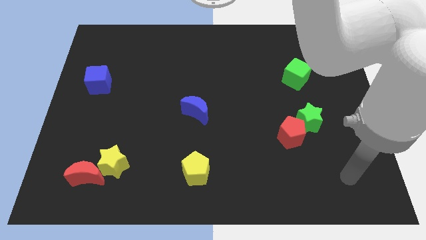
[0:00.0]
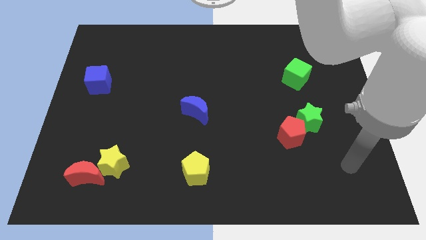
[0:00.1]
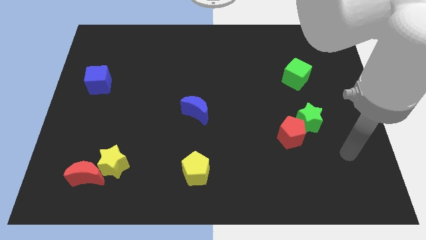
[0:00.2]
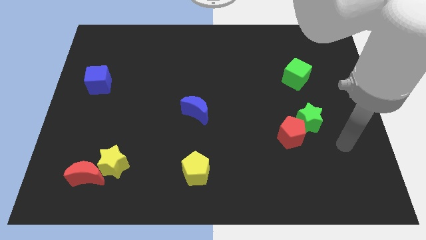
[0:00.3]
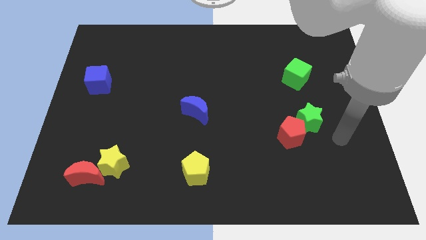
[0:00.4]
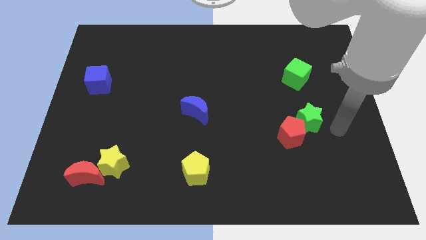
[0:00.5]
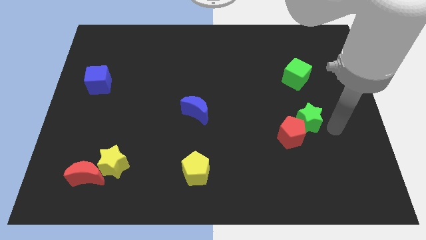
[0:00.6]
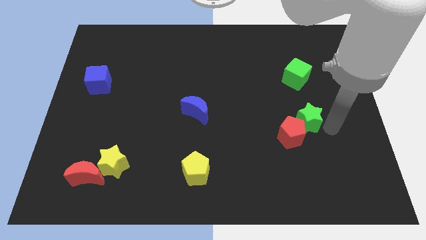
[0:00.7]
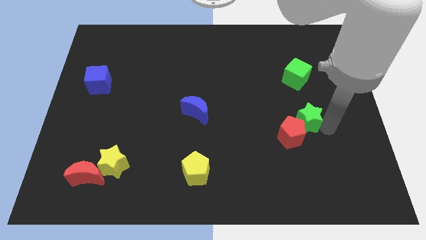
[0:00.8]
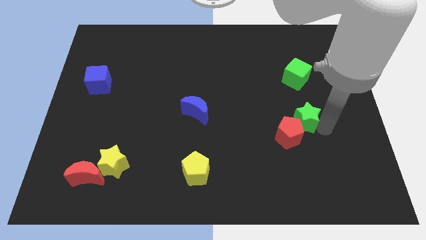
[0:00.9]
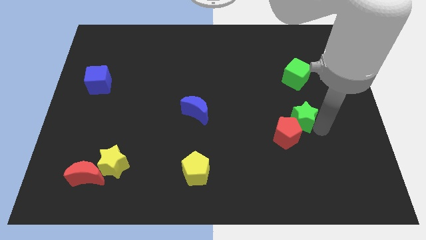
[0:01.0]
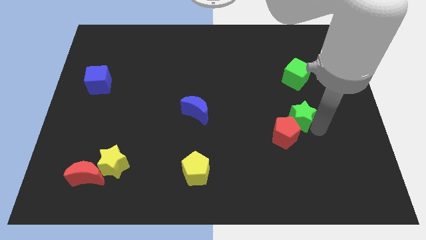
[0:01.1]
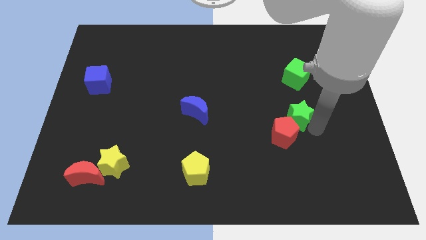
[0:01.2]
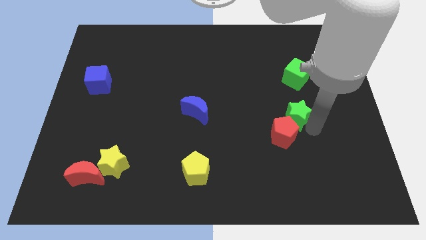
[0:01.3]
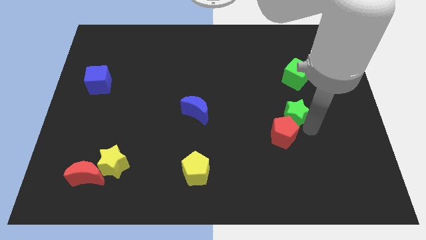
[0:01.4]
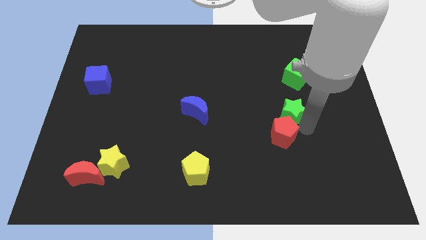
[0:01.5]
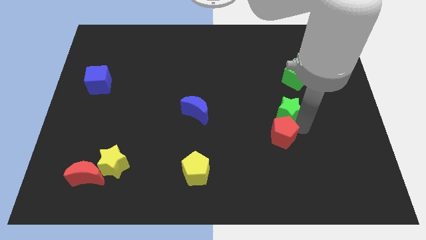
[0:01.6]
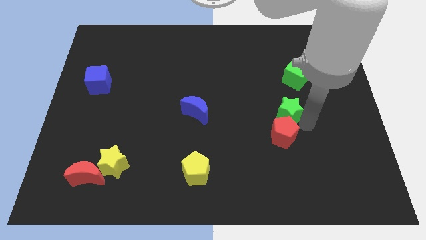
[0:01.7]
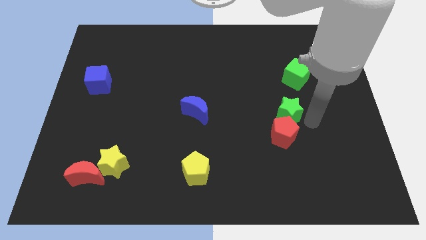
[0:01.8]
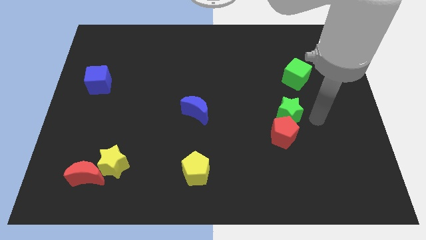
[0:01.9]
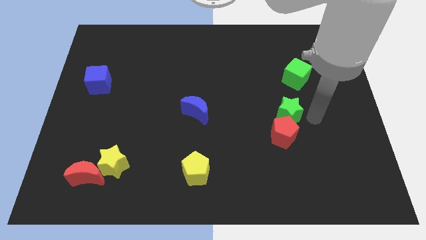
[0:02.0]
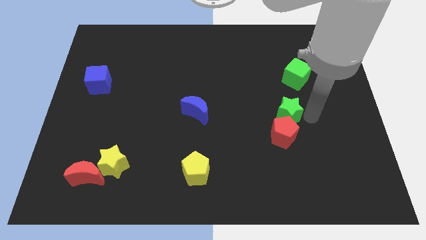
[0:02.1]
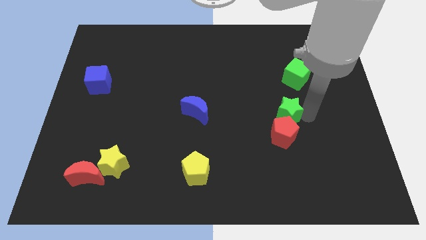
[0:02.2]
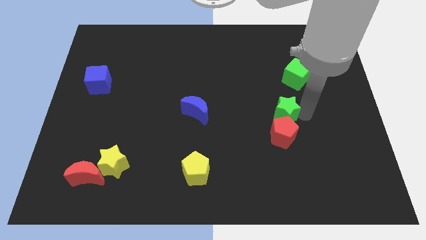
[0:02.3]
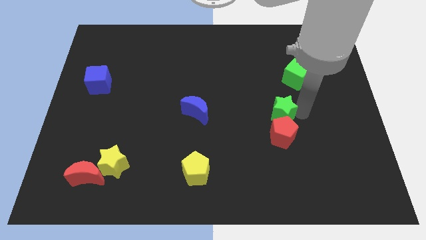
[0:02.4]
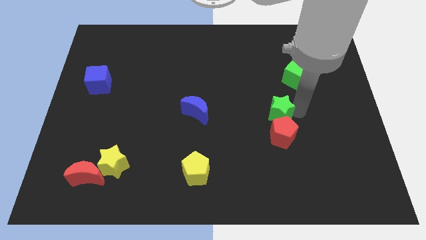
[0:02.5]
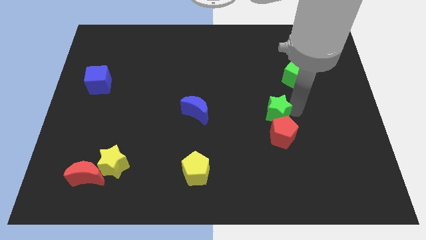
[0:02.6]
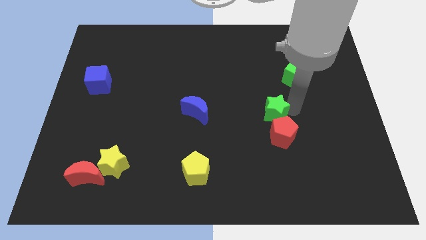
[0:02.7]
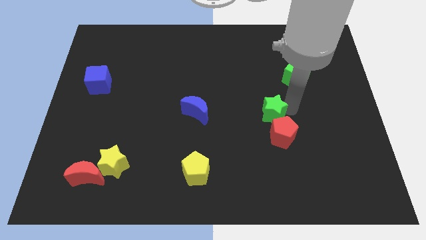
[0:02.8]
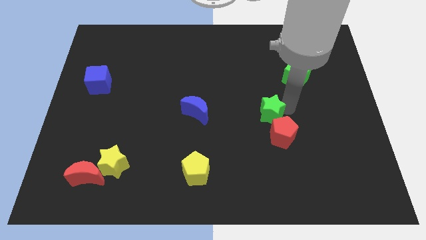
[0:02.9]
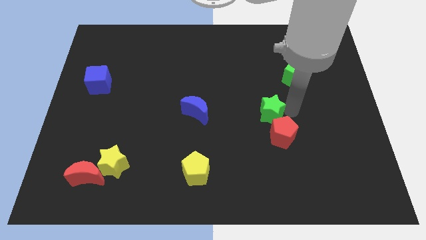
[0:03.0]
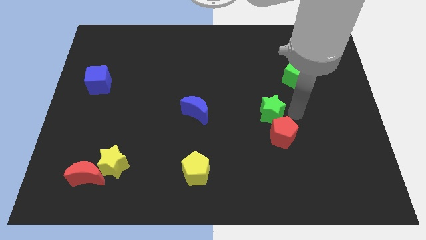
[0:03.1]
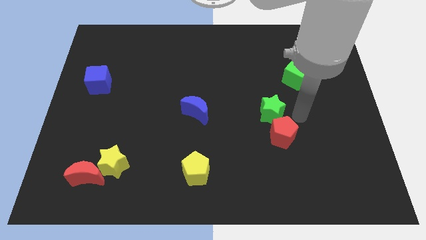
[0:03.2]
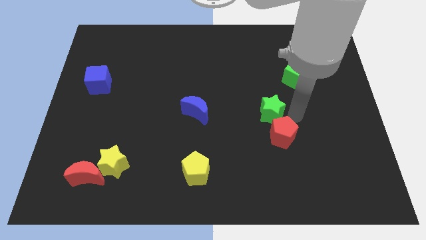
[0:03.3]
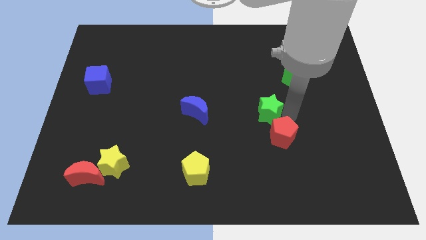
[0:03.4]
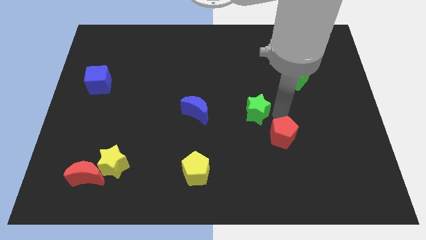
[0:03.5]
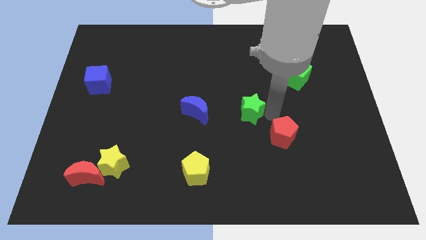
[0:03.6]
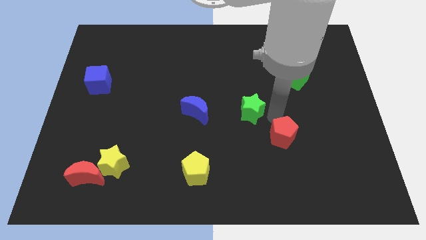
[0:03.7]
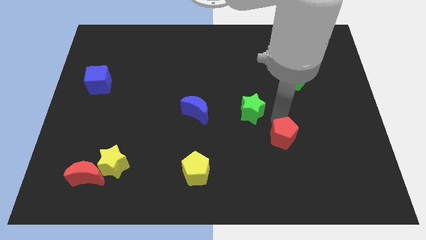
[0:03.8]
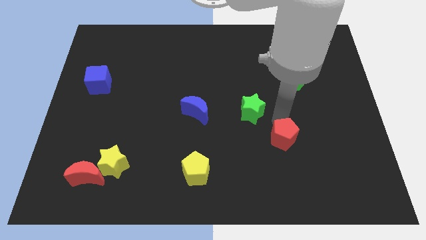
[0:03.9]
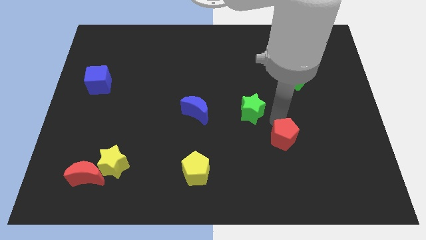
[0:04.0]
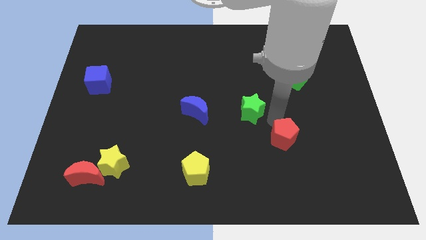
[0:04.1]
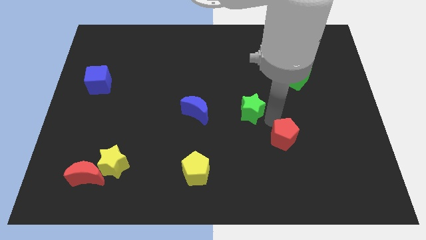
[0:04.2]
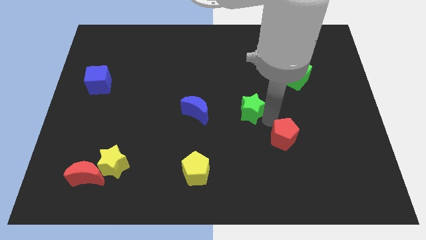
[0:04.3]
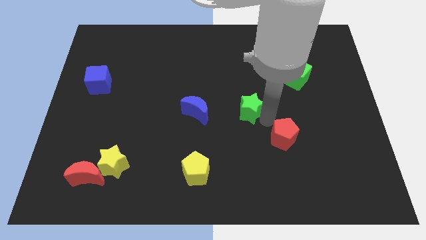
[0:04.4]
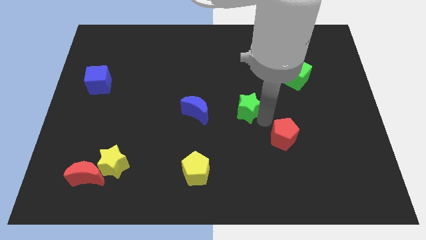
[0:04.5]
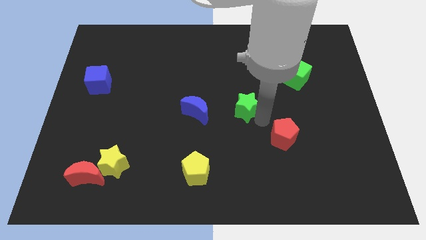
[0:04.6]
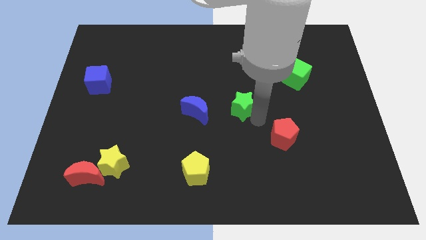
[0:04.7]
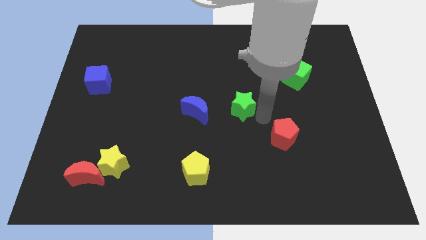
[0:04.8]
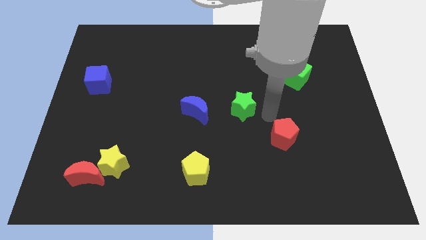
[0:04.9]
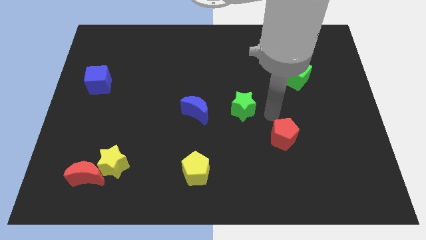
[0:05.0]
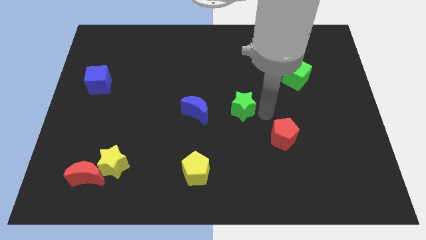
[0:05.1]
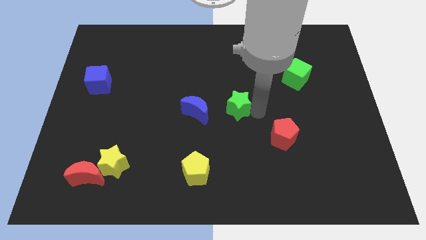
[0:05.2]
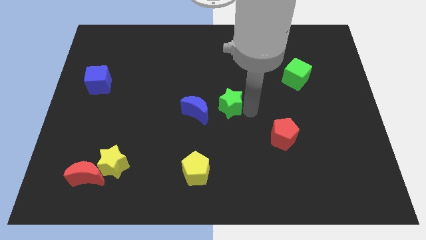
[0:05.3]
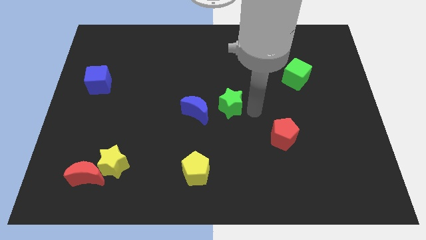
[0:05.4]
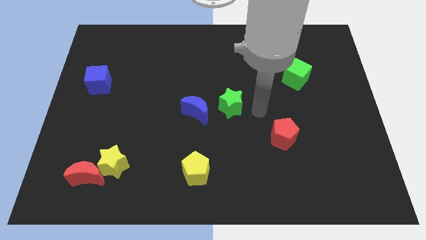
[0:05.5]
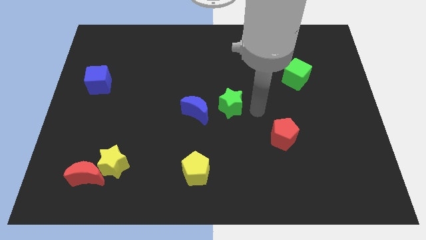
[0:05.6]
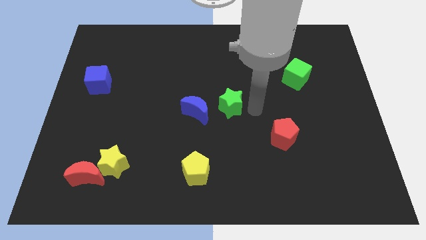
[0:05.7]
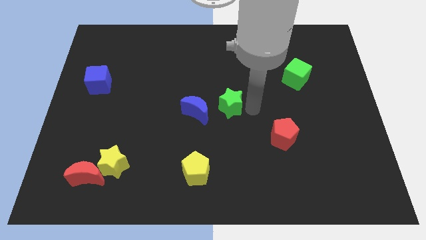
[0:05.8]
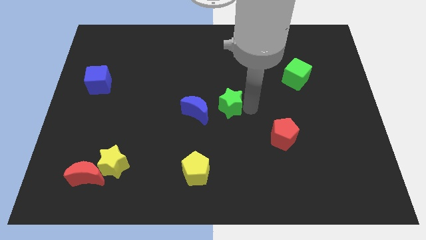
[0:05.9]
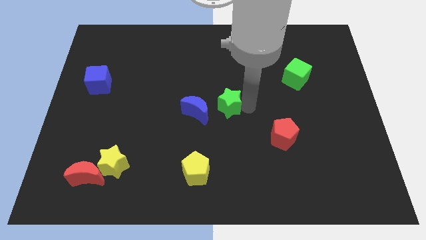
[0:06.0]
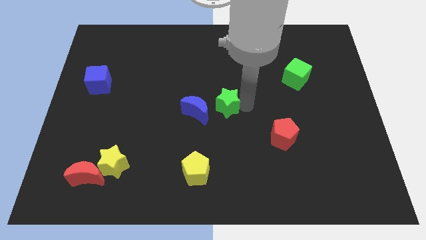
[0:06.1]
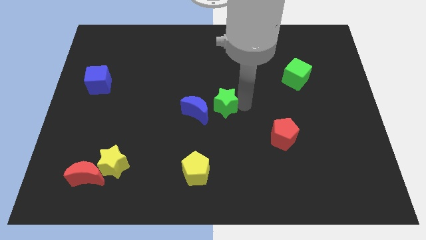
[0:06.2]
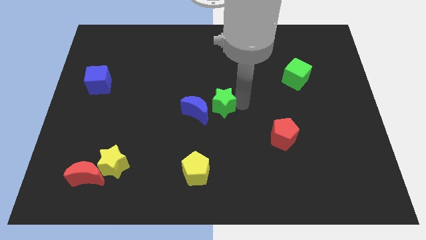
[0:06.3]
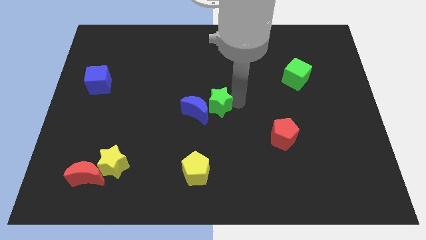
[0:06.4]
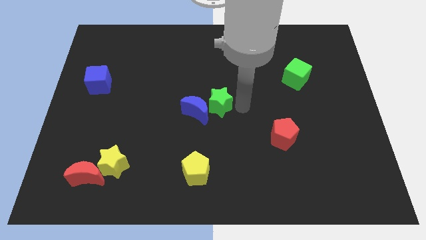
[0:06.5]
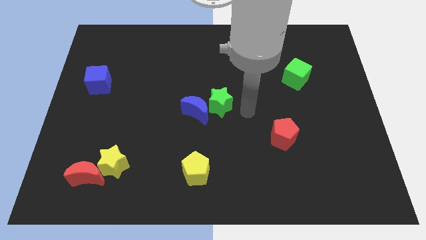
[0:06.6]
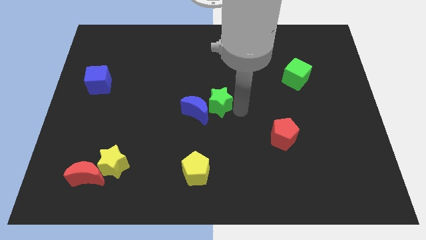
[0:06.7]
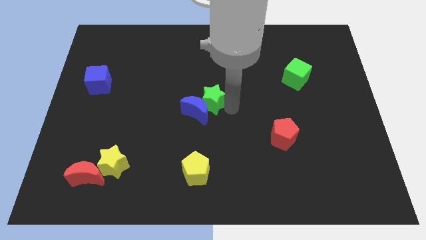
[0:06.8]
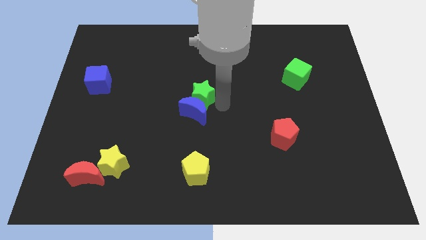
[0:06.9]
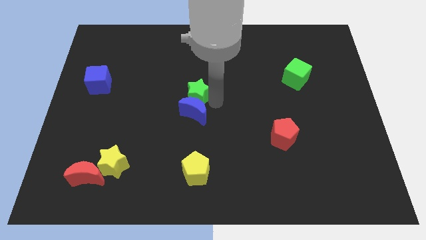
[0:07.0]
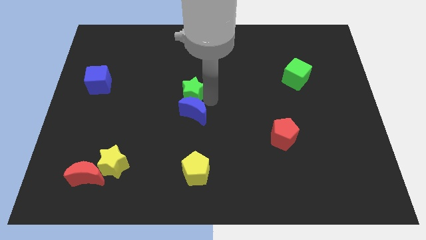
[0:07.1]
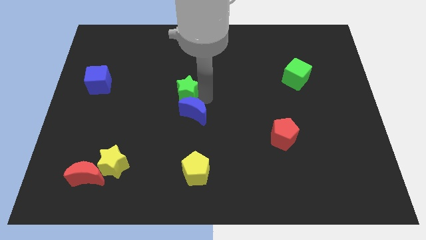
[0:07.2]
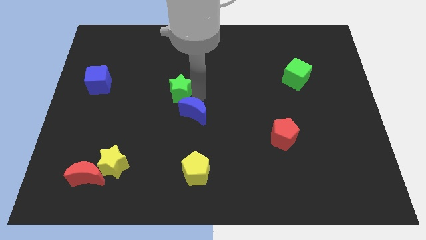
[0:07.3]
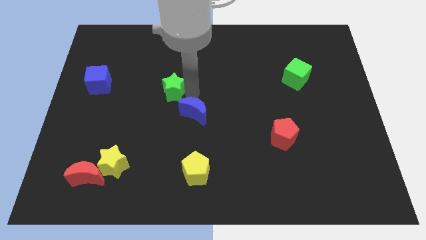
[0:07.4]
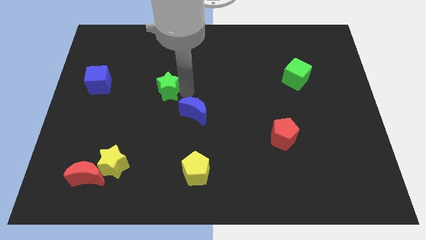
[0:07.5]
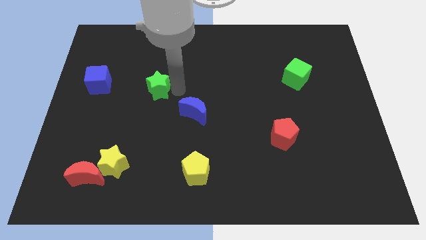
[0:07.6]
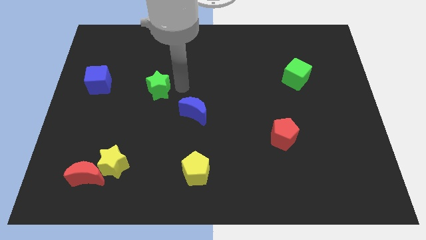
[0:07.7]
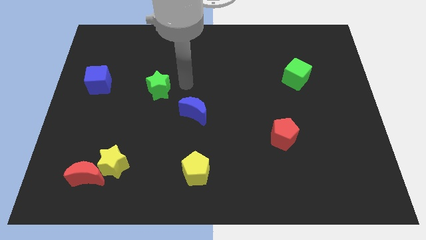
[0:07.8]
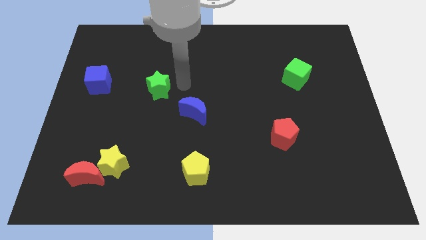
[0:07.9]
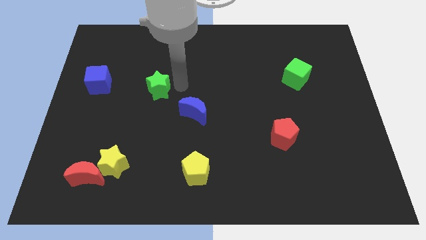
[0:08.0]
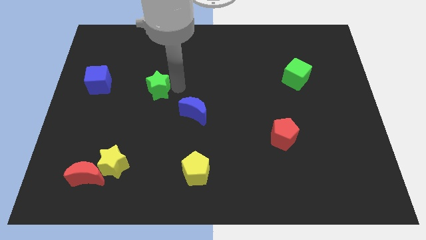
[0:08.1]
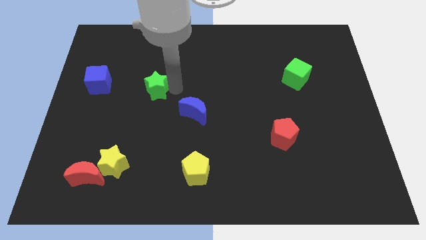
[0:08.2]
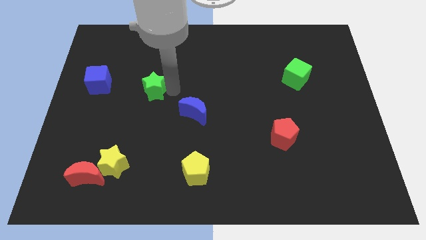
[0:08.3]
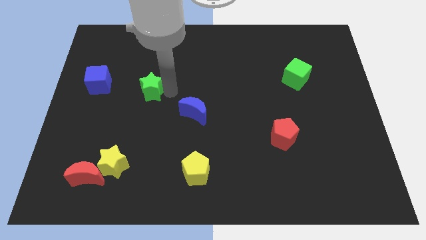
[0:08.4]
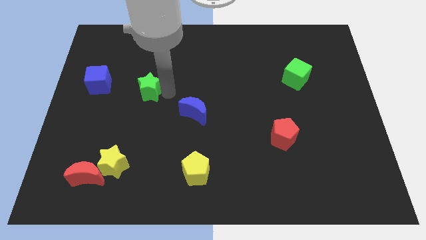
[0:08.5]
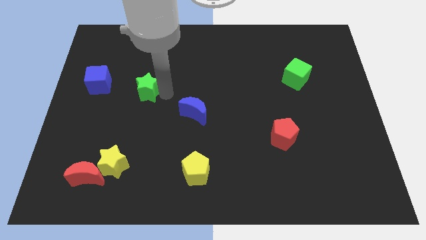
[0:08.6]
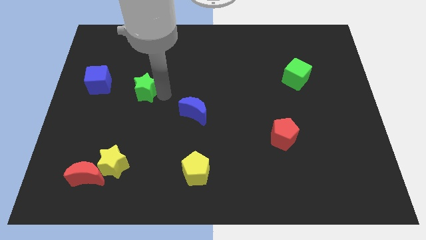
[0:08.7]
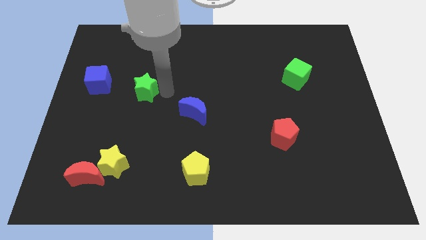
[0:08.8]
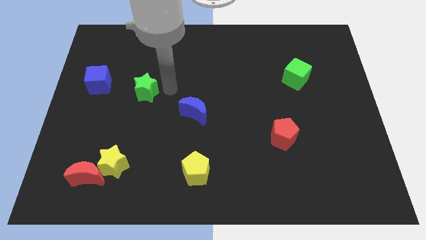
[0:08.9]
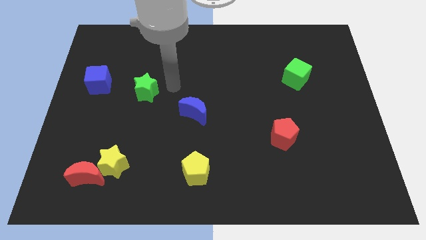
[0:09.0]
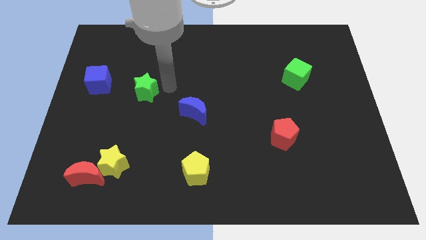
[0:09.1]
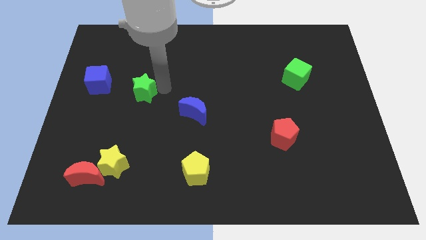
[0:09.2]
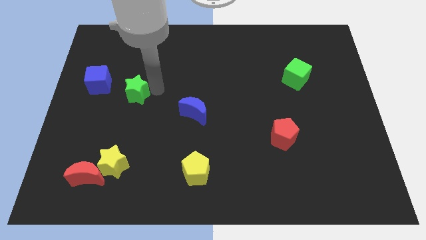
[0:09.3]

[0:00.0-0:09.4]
move the green star diagonally down and to the right of the blue cube
